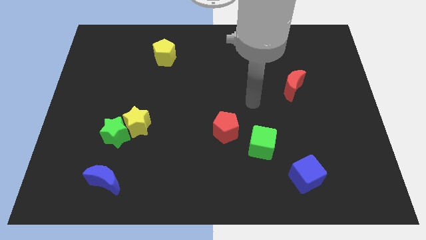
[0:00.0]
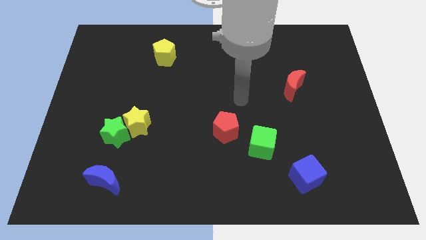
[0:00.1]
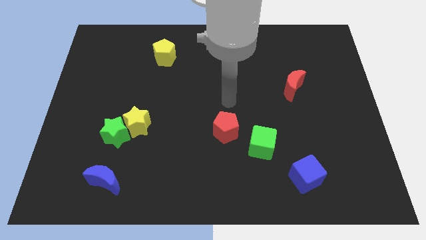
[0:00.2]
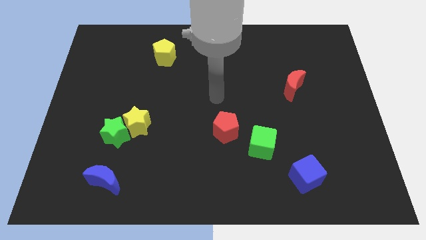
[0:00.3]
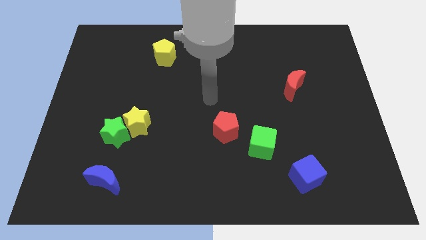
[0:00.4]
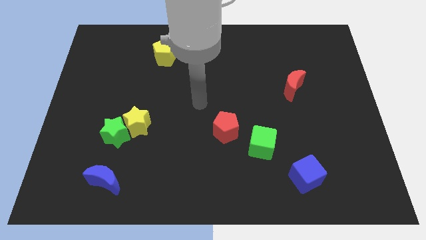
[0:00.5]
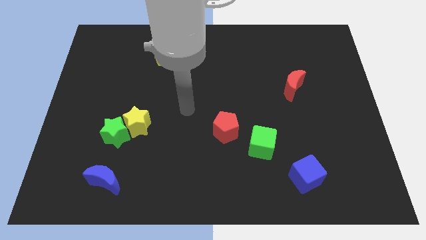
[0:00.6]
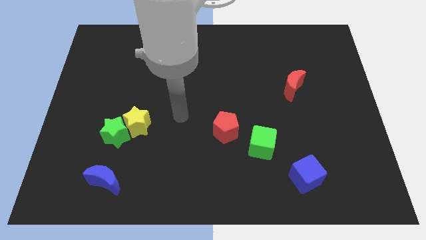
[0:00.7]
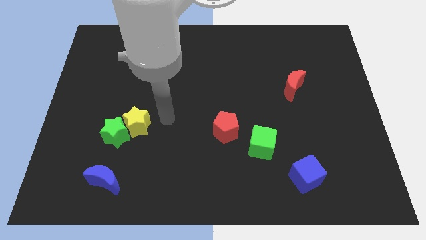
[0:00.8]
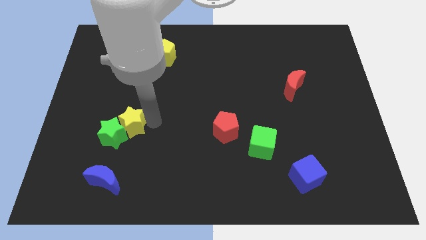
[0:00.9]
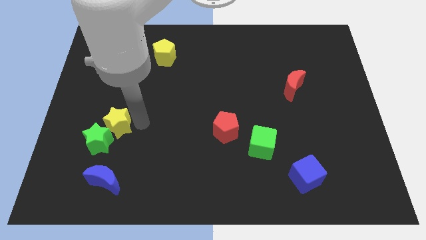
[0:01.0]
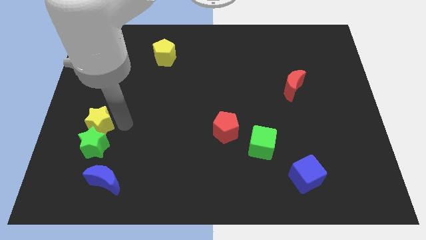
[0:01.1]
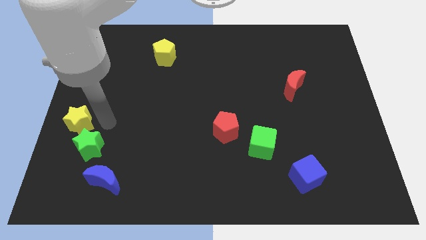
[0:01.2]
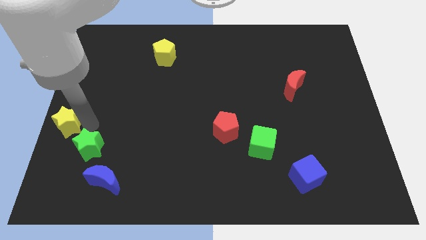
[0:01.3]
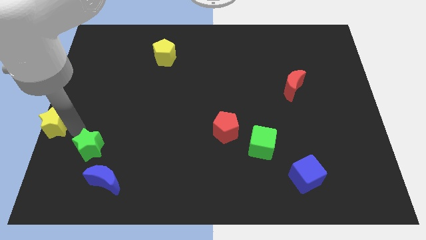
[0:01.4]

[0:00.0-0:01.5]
pull the green star apart from the yellow star

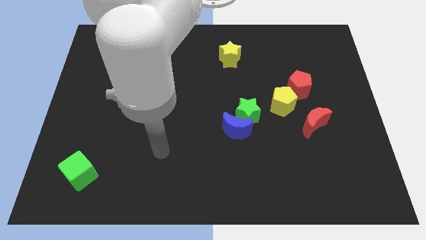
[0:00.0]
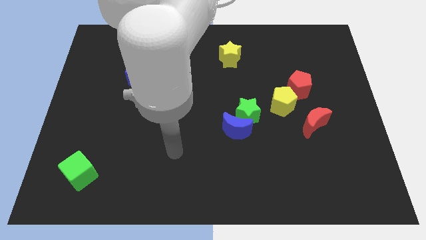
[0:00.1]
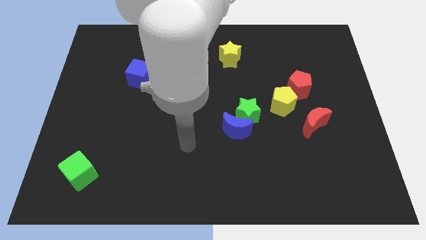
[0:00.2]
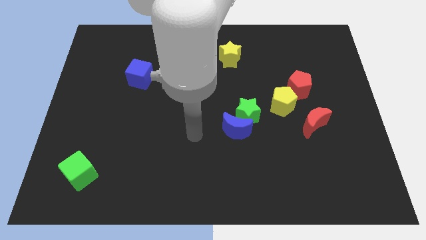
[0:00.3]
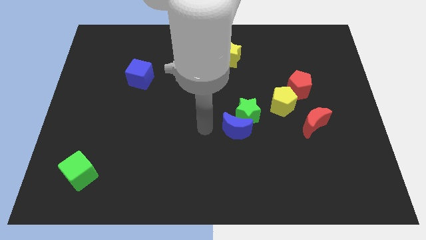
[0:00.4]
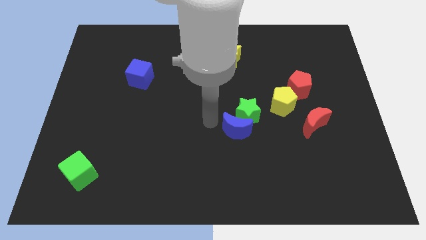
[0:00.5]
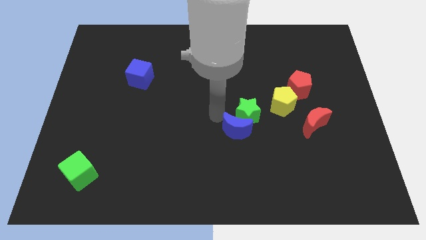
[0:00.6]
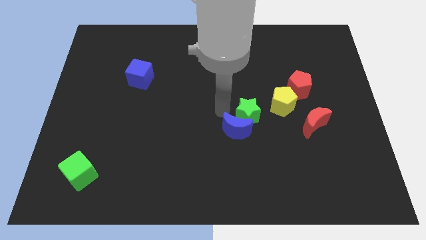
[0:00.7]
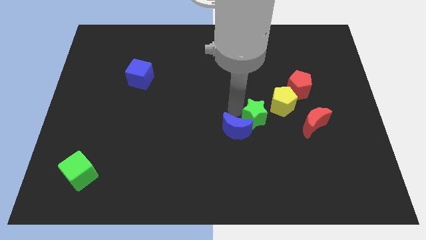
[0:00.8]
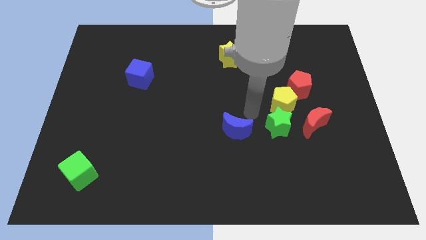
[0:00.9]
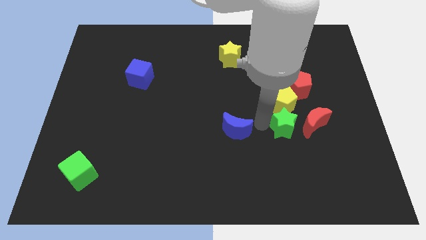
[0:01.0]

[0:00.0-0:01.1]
pull the blue moon apart from the green star

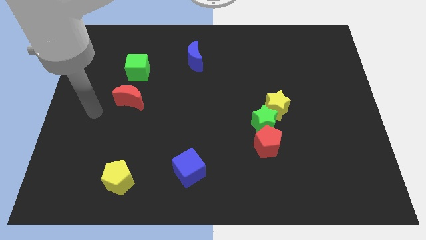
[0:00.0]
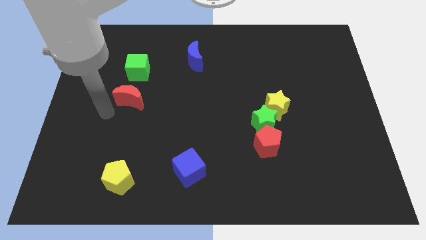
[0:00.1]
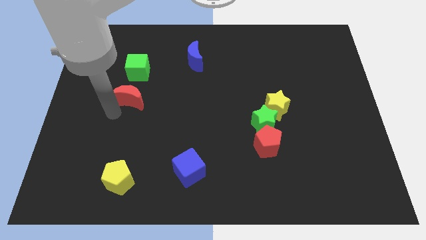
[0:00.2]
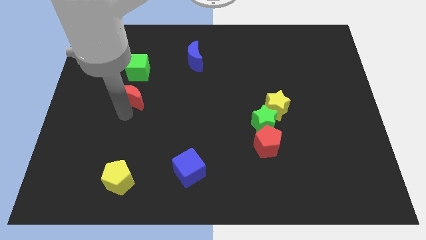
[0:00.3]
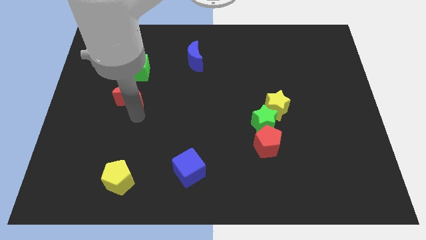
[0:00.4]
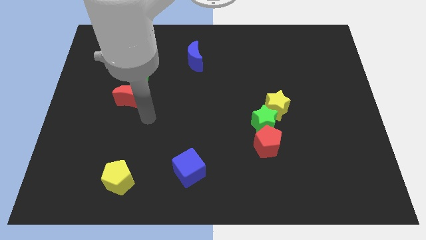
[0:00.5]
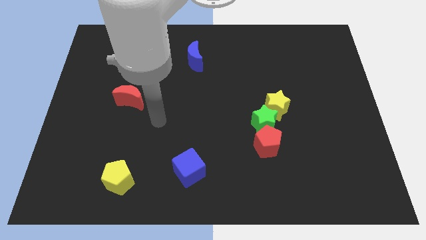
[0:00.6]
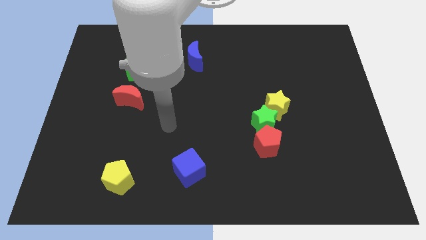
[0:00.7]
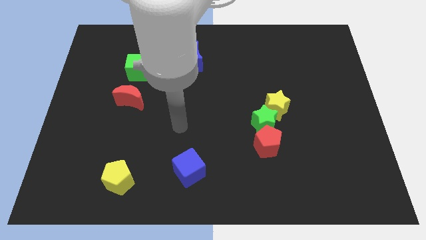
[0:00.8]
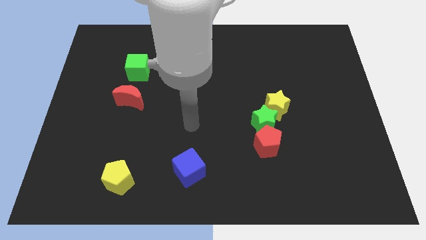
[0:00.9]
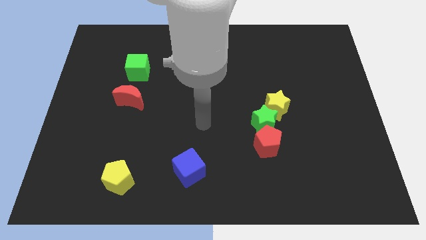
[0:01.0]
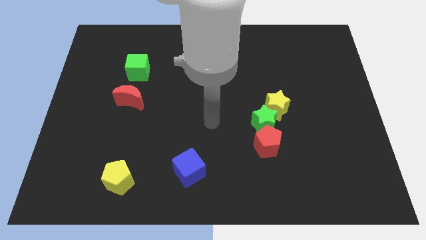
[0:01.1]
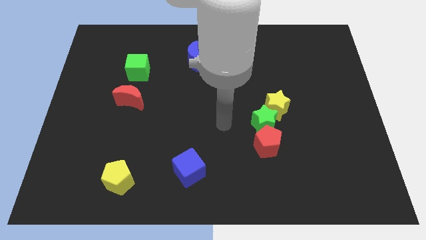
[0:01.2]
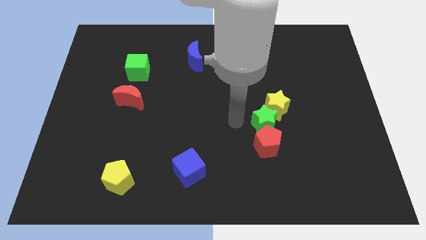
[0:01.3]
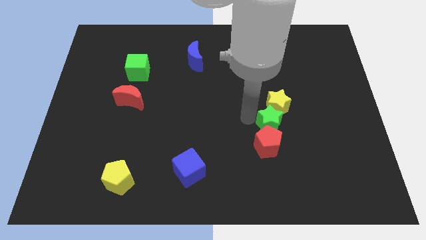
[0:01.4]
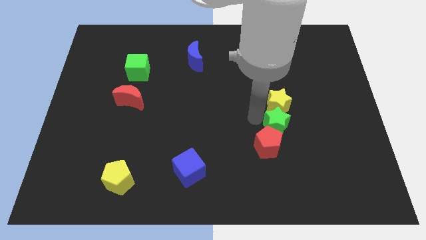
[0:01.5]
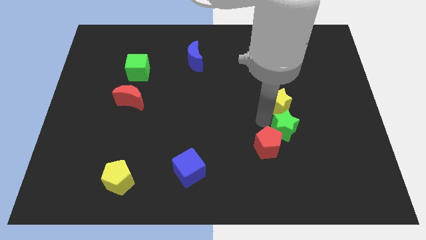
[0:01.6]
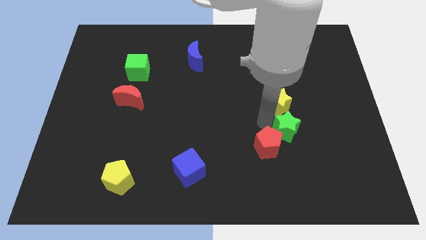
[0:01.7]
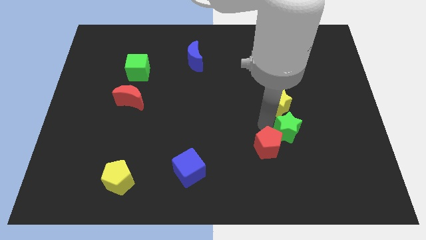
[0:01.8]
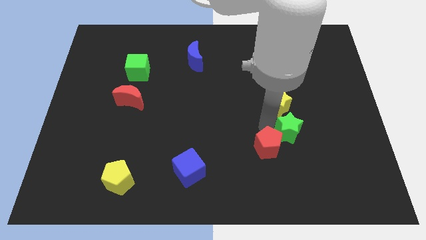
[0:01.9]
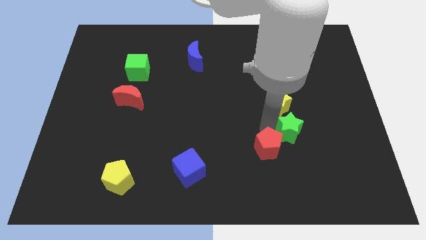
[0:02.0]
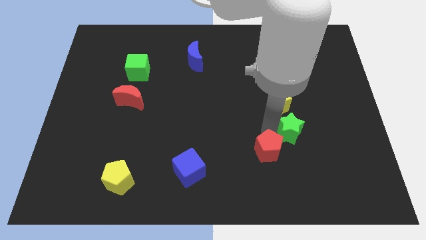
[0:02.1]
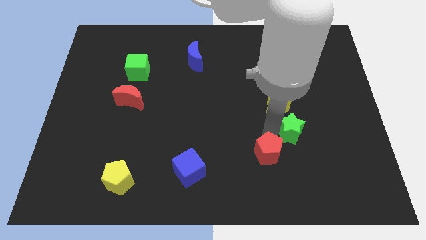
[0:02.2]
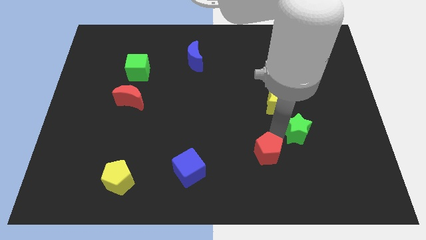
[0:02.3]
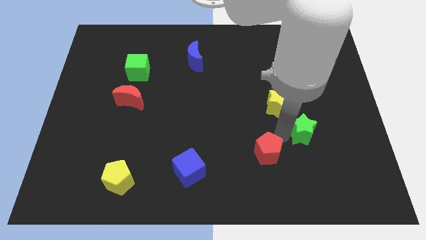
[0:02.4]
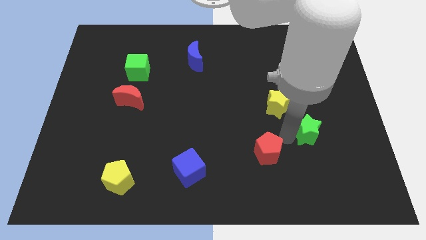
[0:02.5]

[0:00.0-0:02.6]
move the red pentagon away from the green star

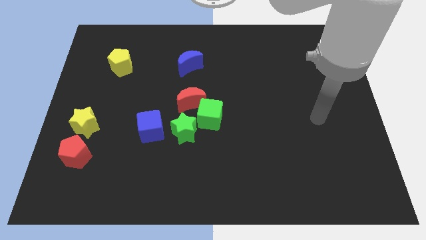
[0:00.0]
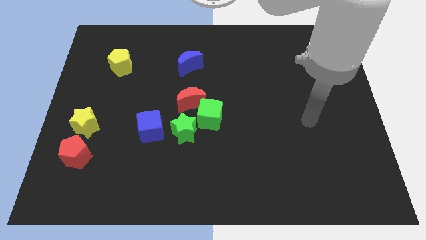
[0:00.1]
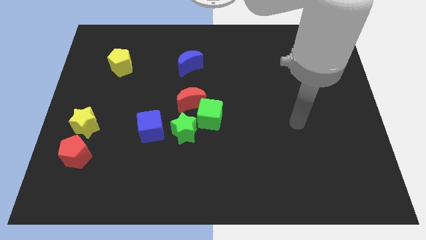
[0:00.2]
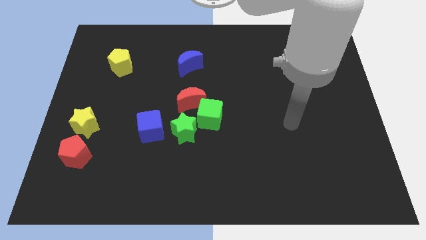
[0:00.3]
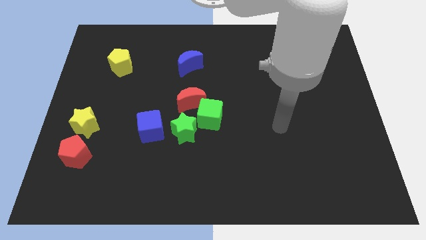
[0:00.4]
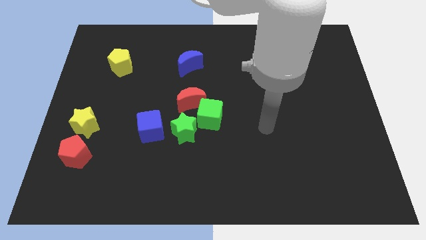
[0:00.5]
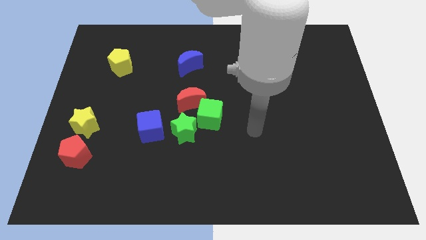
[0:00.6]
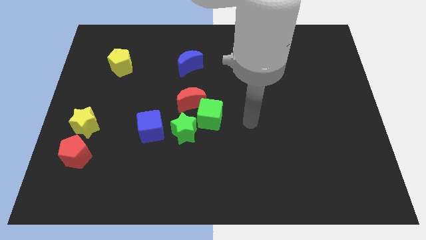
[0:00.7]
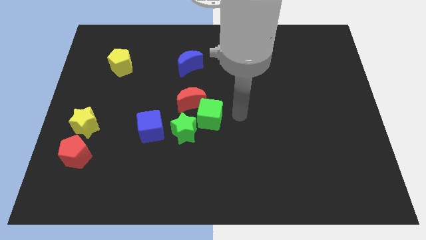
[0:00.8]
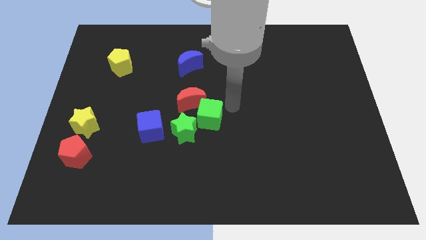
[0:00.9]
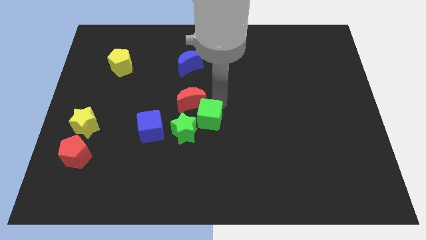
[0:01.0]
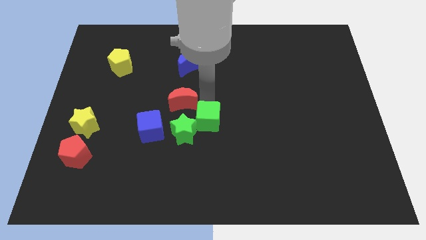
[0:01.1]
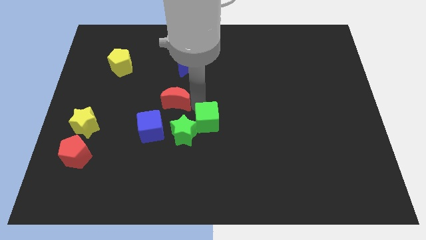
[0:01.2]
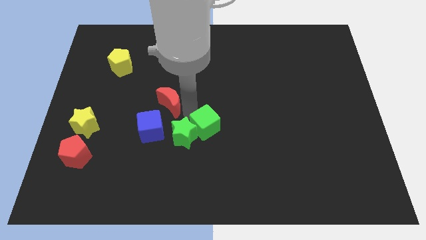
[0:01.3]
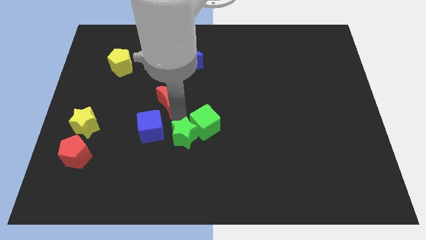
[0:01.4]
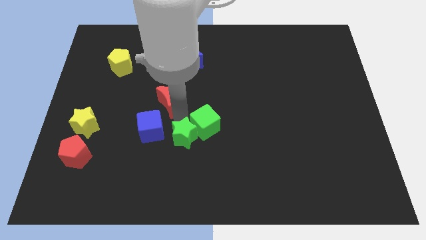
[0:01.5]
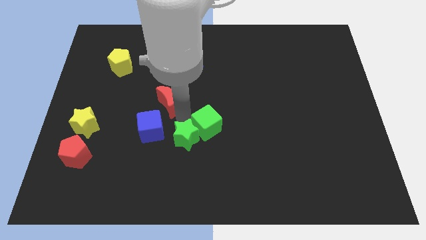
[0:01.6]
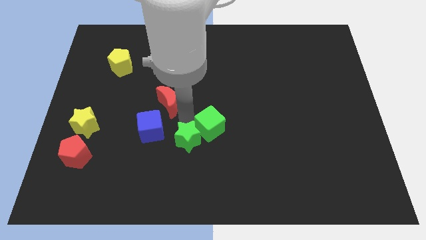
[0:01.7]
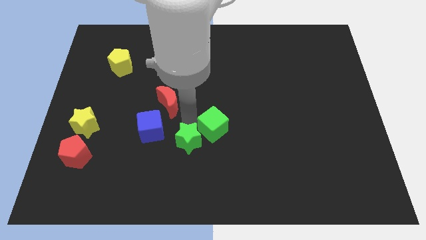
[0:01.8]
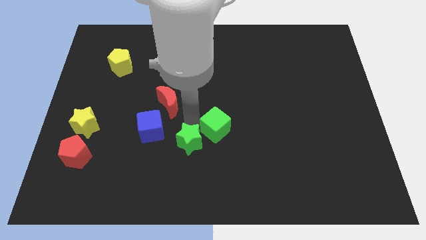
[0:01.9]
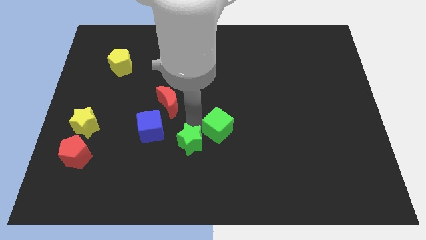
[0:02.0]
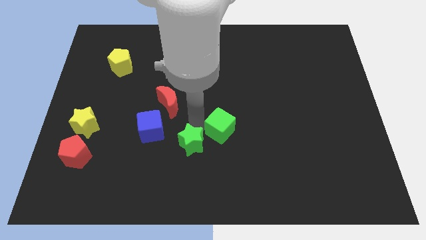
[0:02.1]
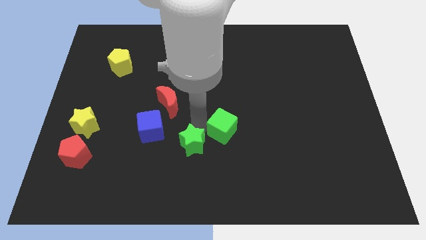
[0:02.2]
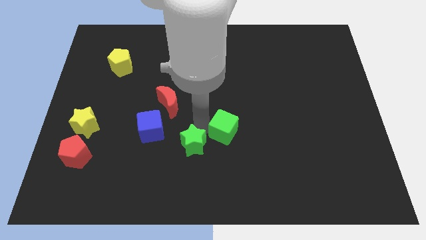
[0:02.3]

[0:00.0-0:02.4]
move the green cube away from the red moon and green star

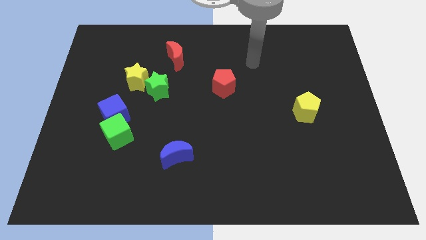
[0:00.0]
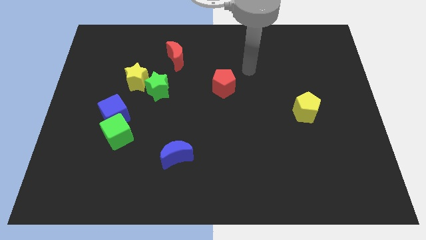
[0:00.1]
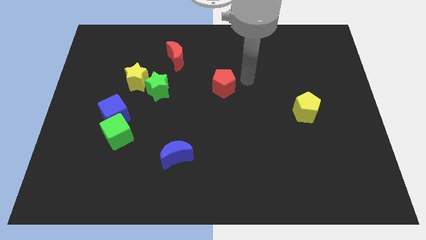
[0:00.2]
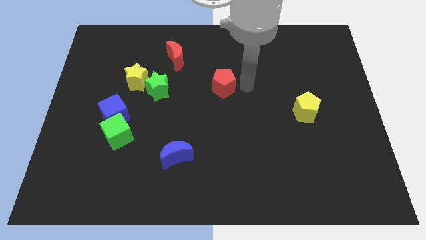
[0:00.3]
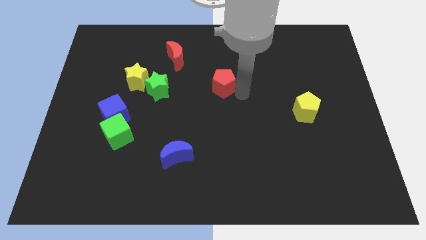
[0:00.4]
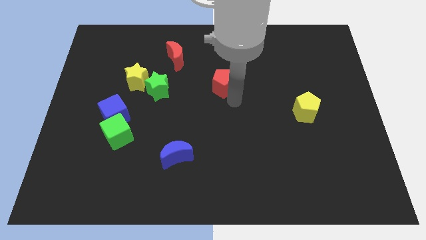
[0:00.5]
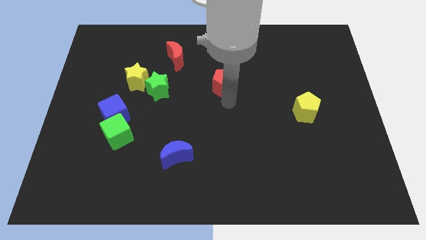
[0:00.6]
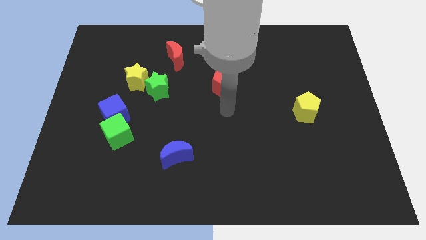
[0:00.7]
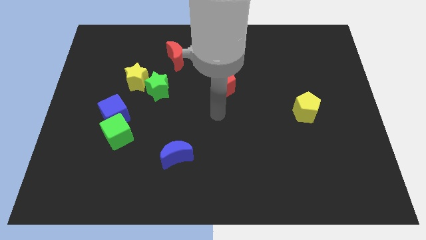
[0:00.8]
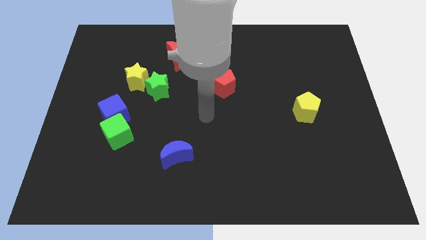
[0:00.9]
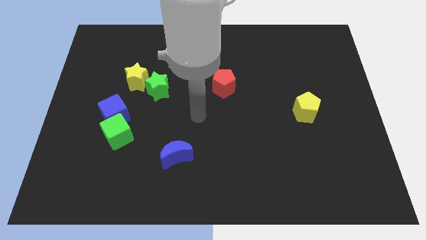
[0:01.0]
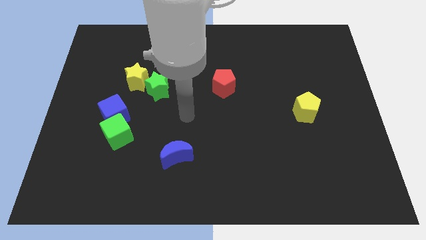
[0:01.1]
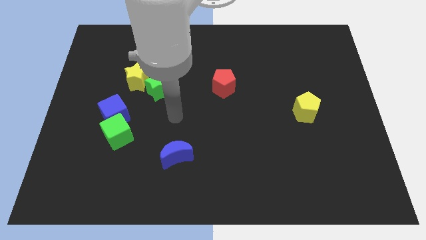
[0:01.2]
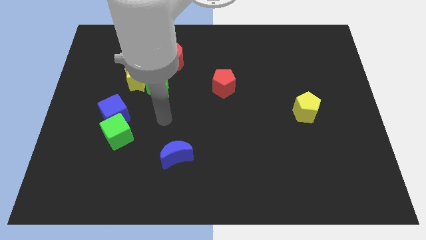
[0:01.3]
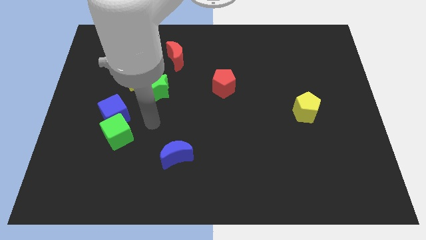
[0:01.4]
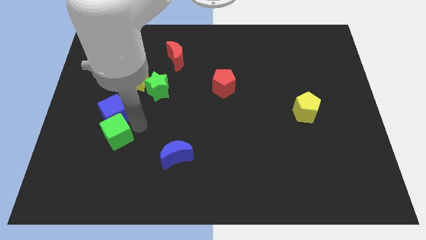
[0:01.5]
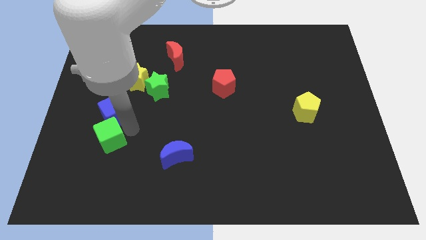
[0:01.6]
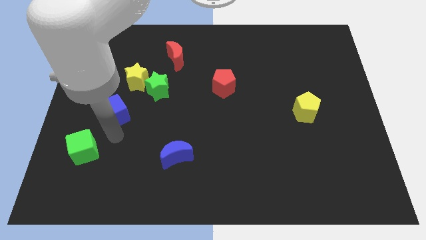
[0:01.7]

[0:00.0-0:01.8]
pull the blue cube apart from the green cube
